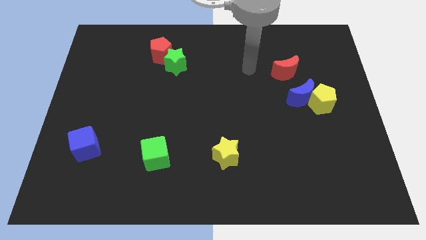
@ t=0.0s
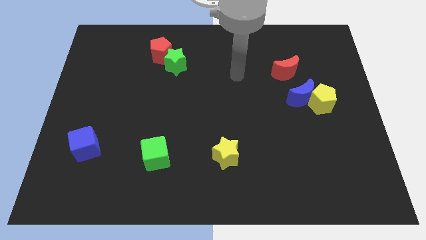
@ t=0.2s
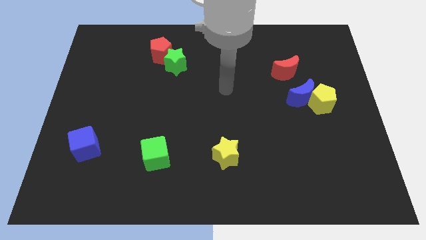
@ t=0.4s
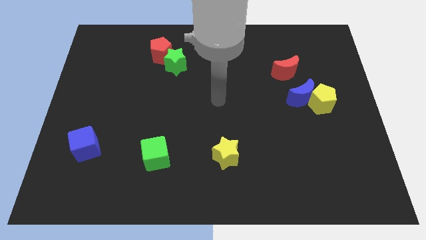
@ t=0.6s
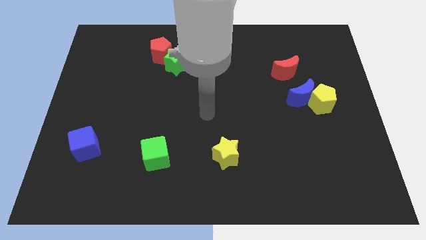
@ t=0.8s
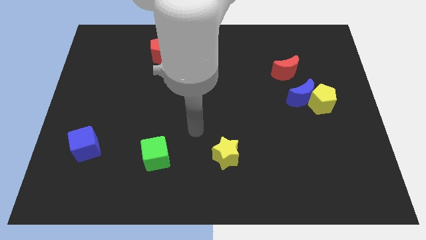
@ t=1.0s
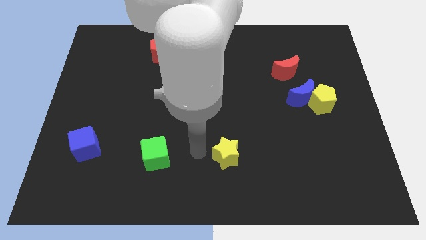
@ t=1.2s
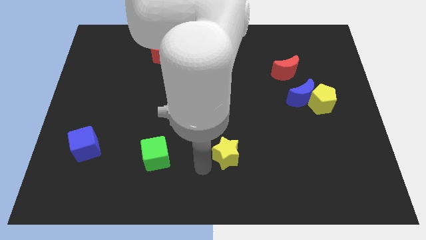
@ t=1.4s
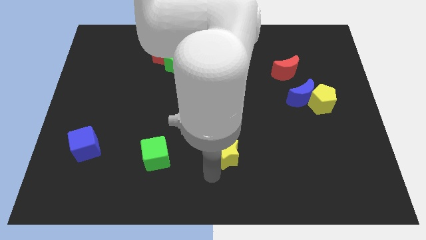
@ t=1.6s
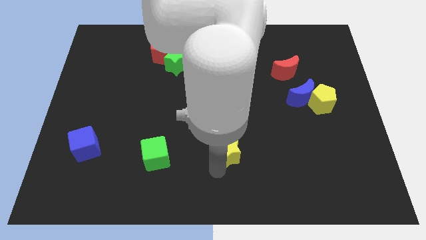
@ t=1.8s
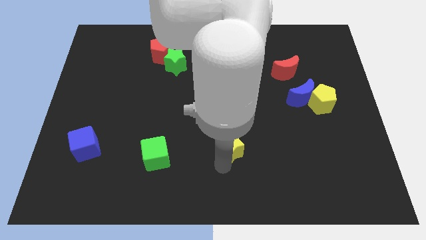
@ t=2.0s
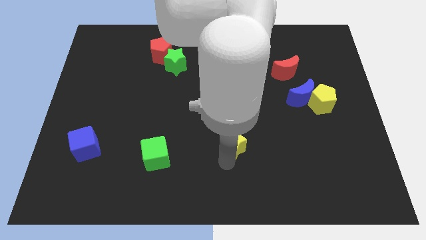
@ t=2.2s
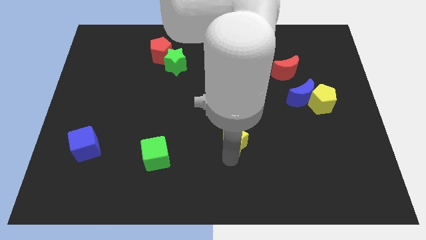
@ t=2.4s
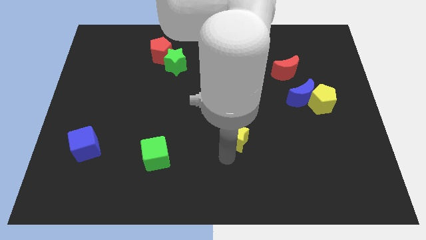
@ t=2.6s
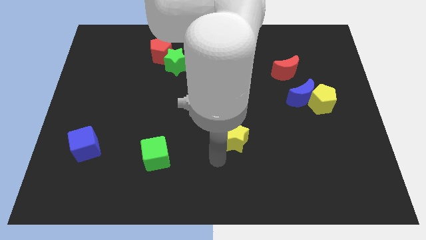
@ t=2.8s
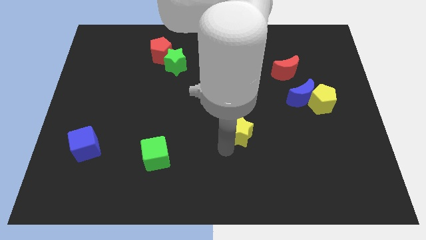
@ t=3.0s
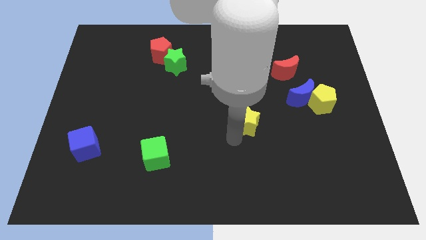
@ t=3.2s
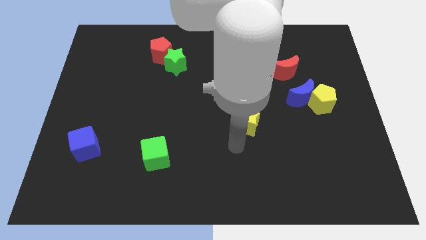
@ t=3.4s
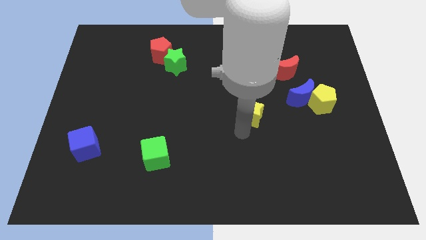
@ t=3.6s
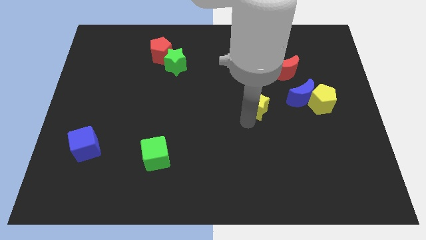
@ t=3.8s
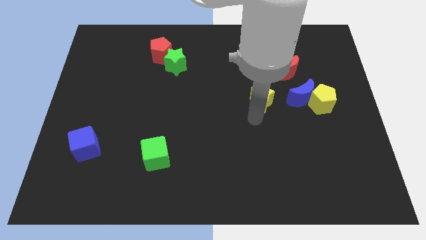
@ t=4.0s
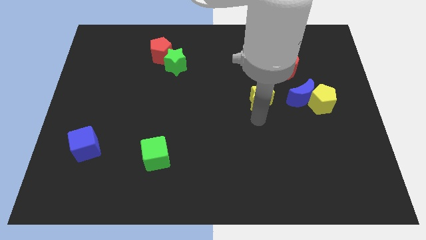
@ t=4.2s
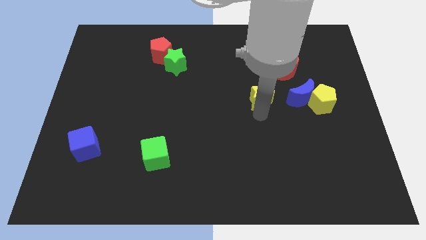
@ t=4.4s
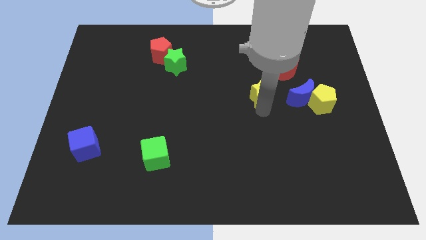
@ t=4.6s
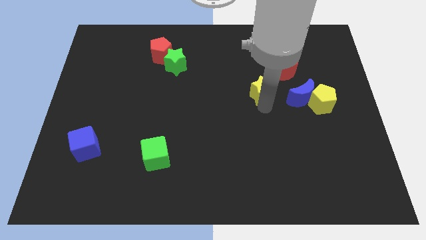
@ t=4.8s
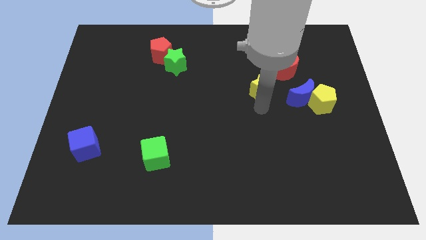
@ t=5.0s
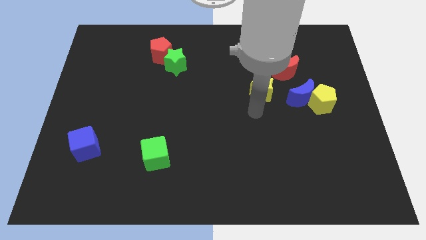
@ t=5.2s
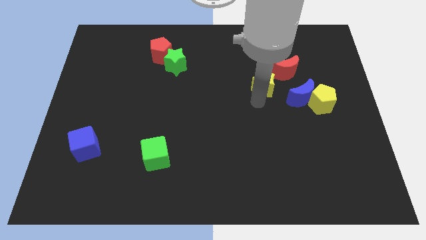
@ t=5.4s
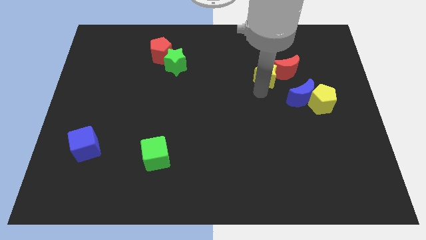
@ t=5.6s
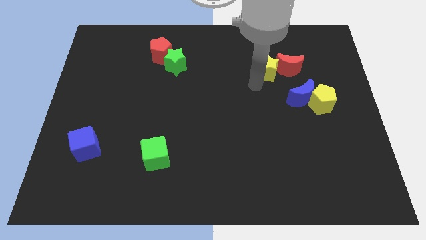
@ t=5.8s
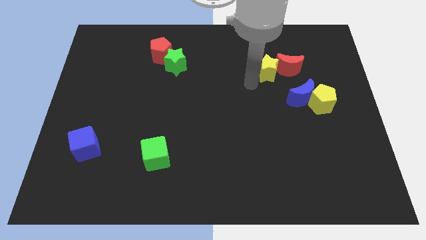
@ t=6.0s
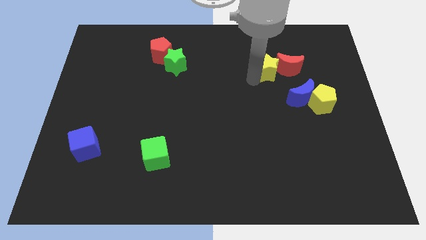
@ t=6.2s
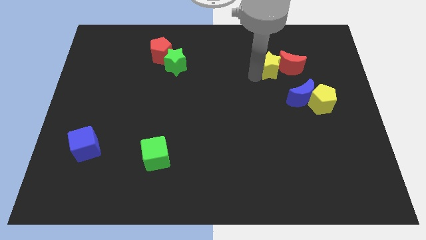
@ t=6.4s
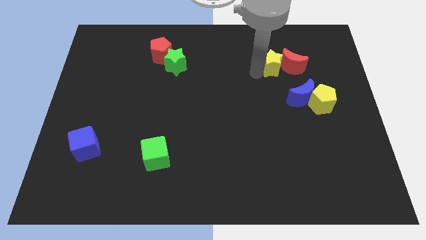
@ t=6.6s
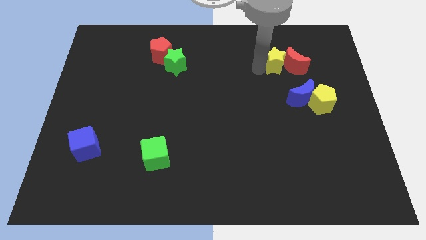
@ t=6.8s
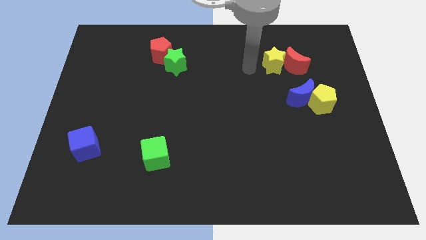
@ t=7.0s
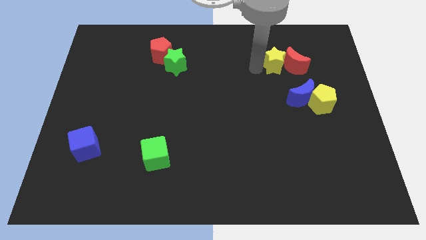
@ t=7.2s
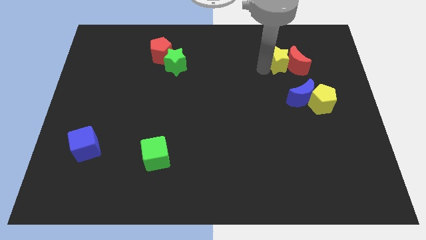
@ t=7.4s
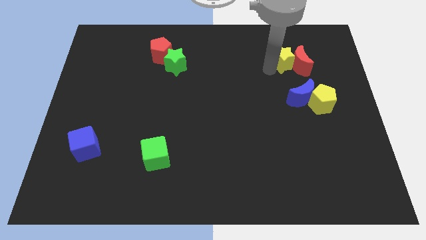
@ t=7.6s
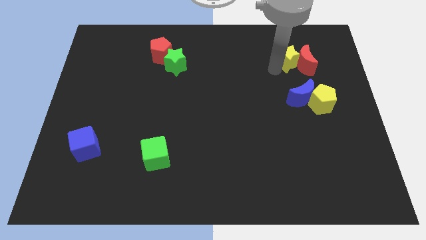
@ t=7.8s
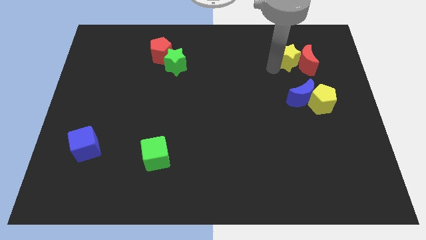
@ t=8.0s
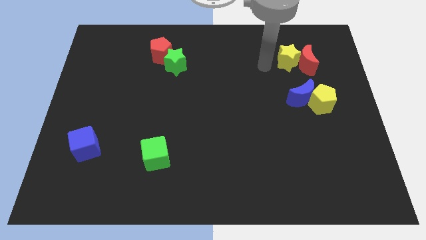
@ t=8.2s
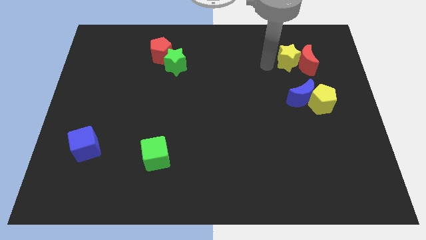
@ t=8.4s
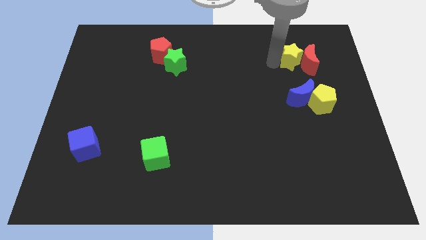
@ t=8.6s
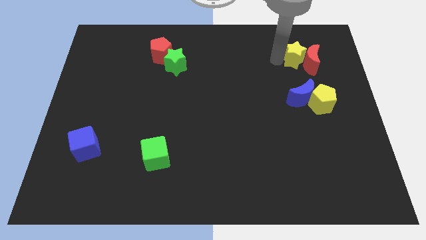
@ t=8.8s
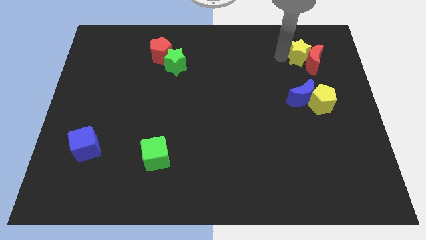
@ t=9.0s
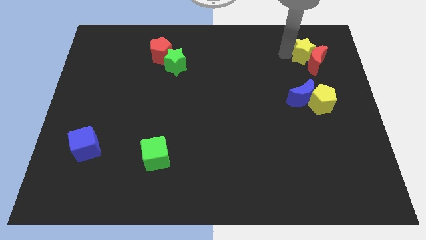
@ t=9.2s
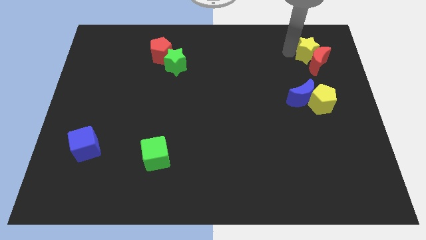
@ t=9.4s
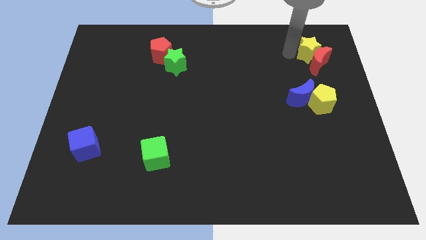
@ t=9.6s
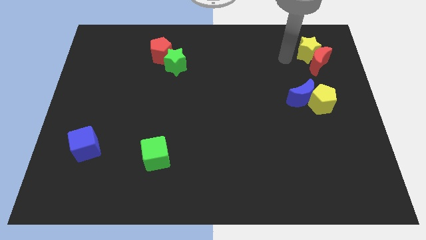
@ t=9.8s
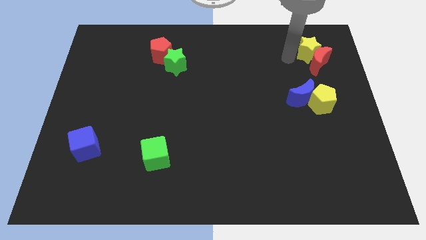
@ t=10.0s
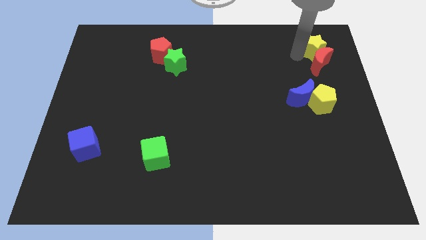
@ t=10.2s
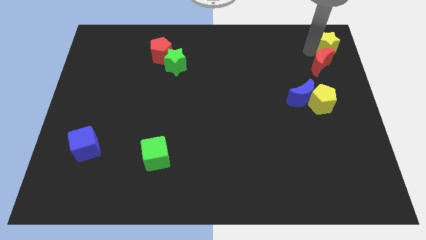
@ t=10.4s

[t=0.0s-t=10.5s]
slide the yellow star to the top right

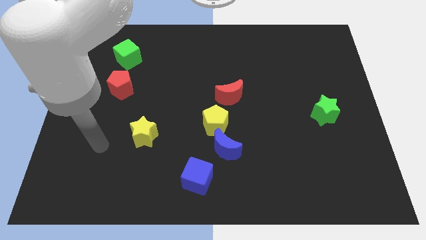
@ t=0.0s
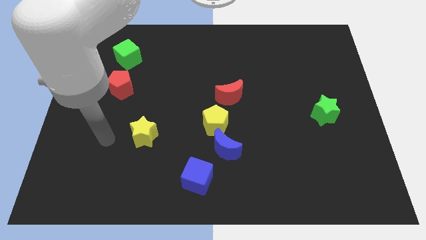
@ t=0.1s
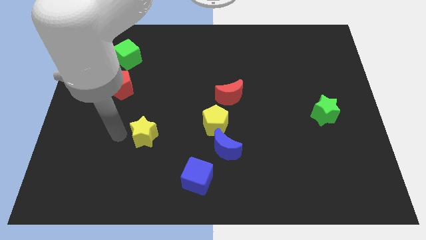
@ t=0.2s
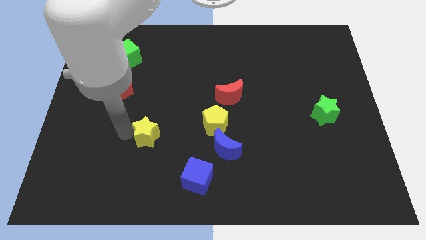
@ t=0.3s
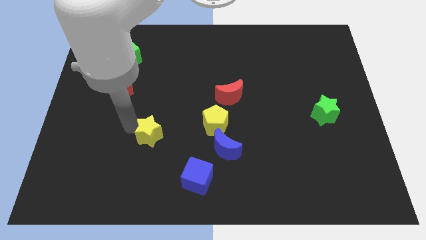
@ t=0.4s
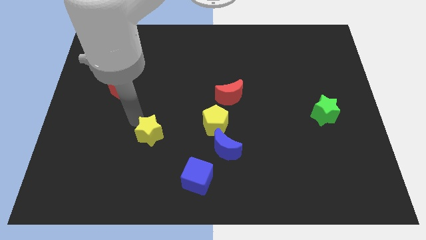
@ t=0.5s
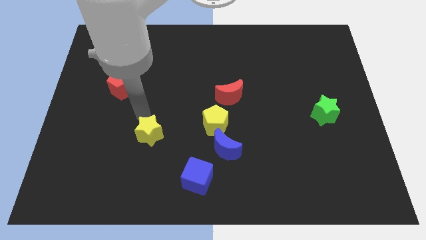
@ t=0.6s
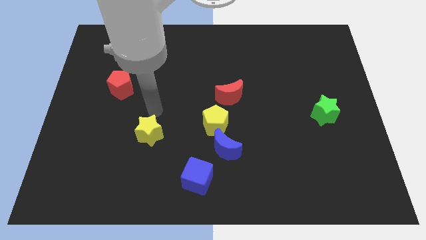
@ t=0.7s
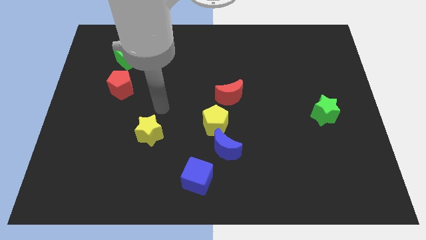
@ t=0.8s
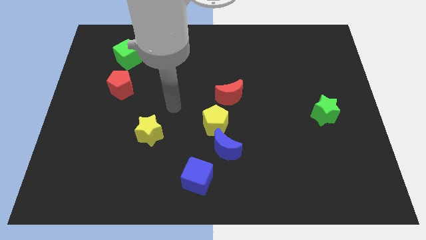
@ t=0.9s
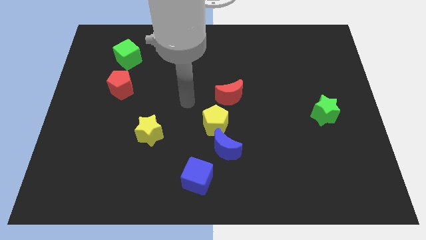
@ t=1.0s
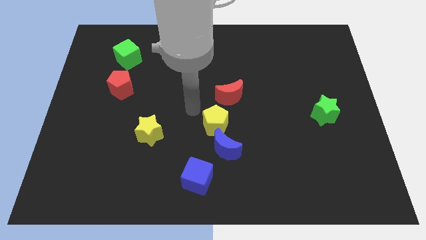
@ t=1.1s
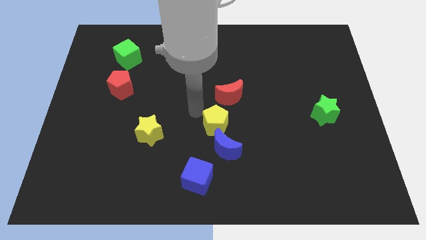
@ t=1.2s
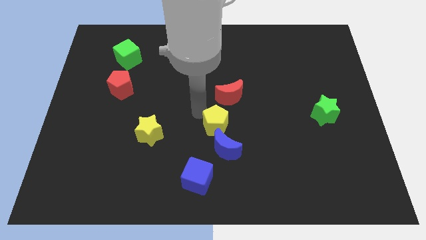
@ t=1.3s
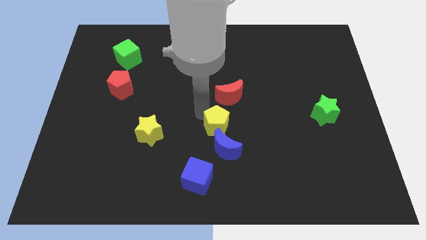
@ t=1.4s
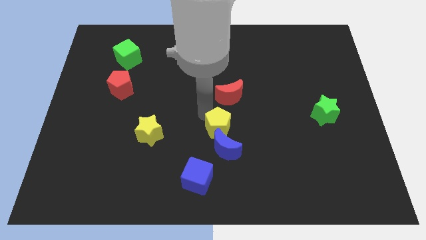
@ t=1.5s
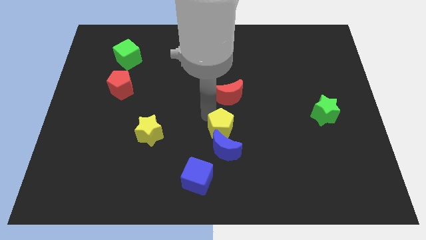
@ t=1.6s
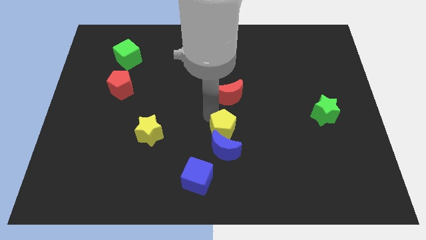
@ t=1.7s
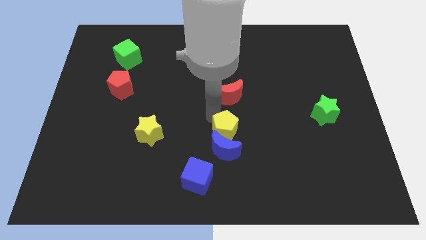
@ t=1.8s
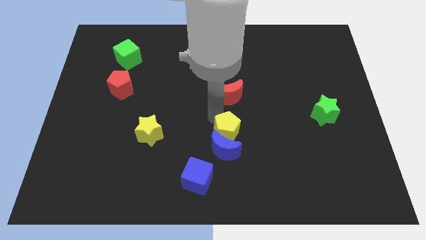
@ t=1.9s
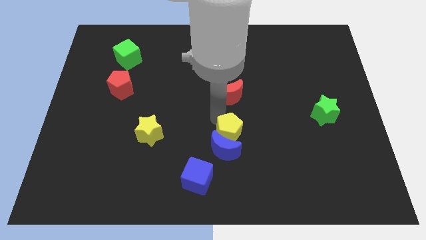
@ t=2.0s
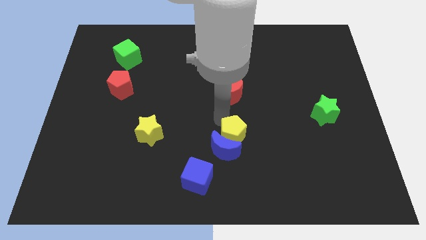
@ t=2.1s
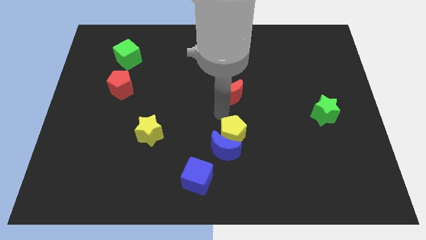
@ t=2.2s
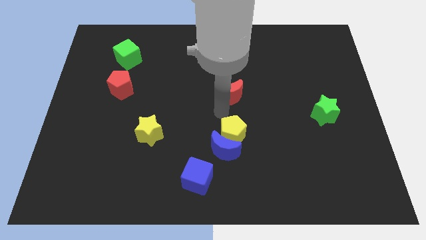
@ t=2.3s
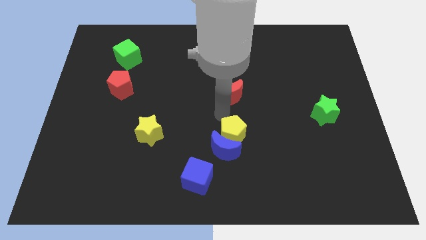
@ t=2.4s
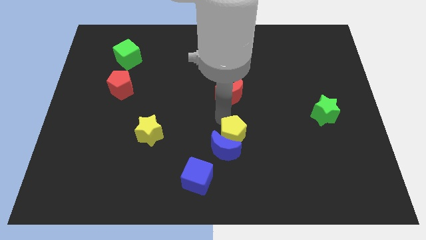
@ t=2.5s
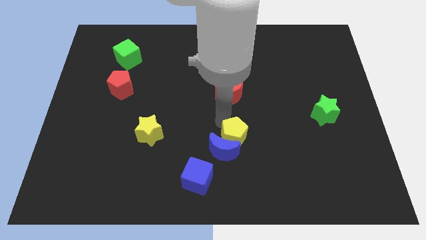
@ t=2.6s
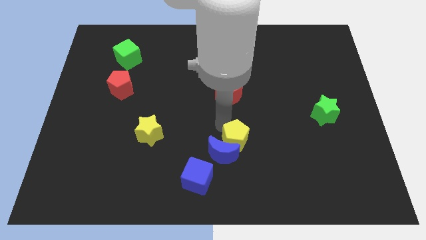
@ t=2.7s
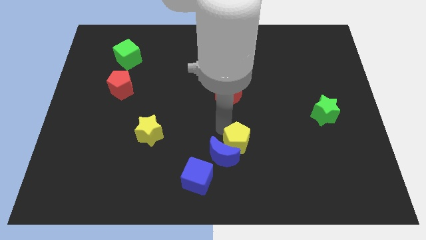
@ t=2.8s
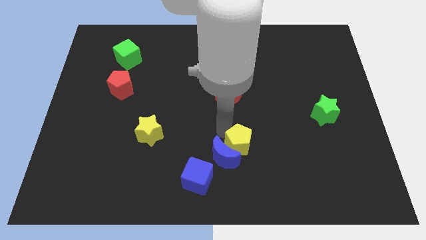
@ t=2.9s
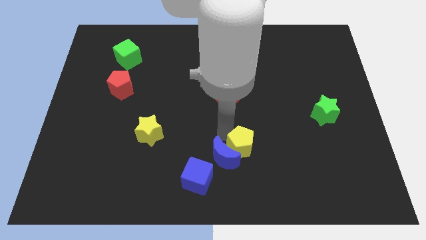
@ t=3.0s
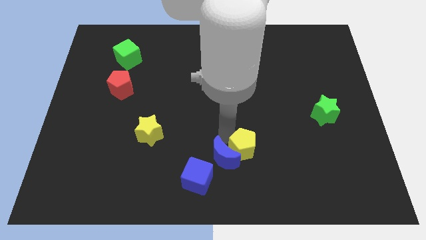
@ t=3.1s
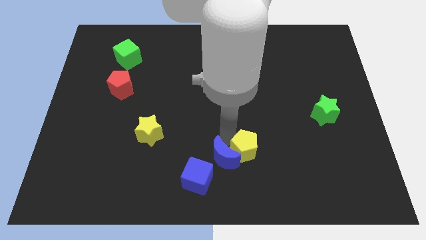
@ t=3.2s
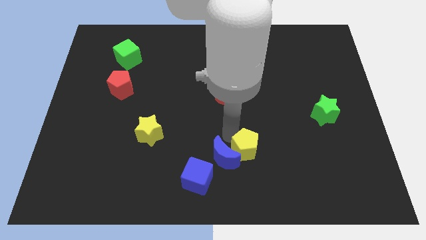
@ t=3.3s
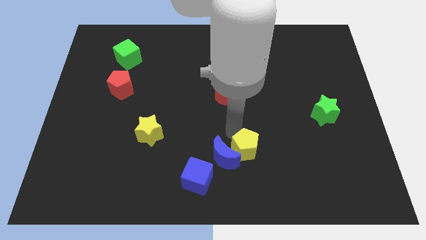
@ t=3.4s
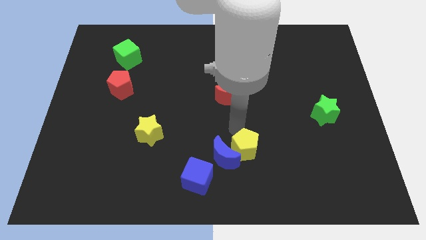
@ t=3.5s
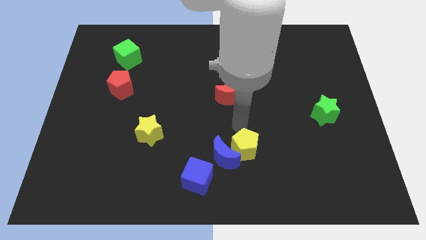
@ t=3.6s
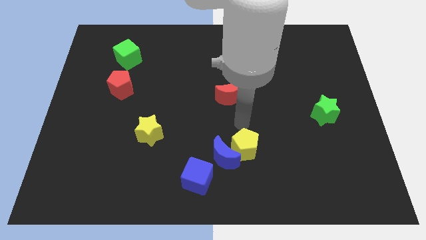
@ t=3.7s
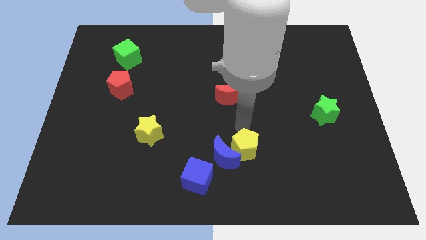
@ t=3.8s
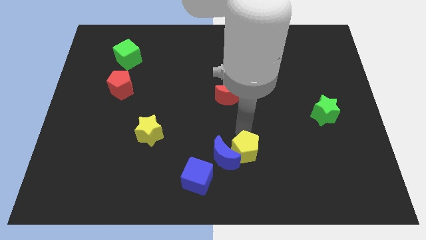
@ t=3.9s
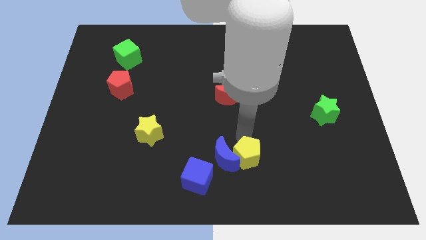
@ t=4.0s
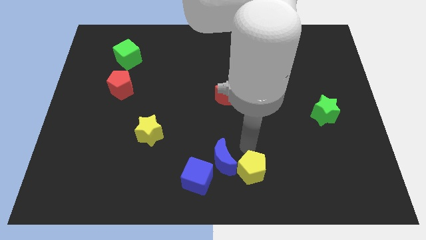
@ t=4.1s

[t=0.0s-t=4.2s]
push the yellow pentagon to the bottom side
